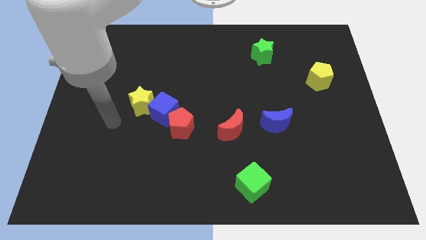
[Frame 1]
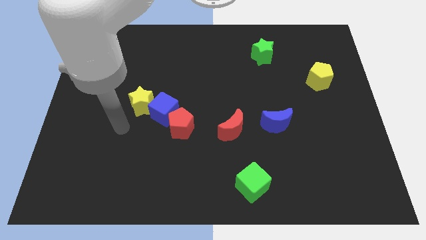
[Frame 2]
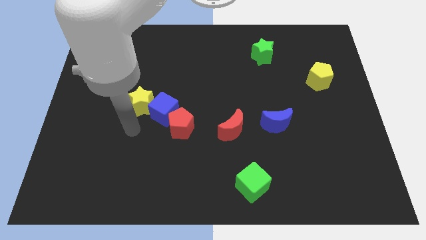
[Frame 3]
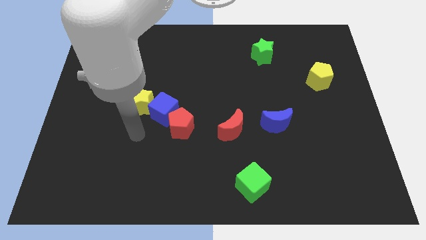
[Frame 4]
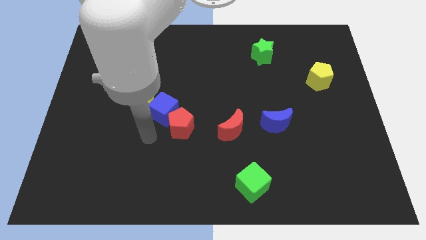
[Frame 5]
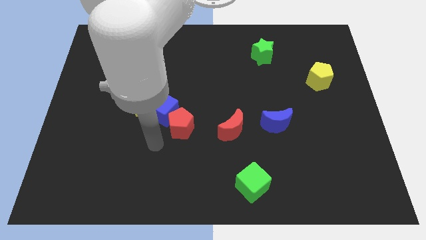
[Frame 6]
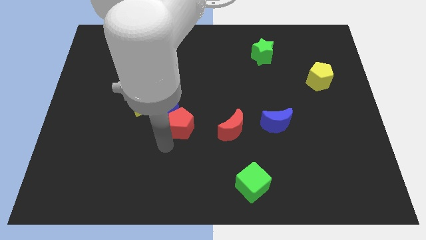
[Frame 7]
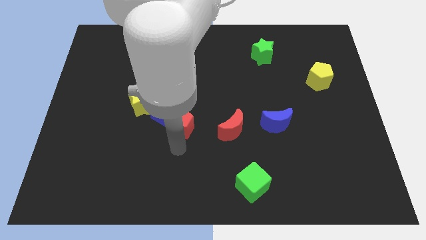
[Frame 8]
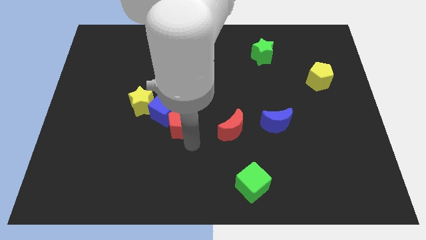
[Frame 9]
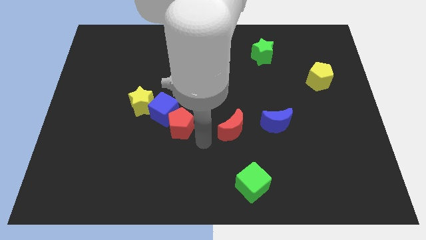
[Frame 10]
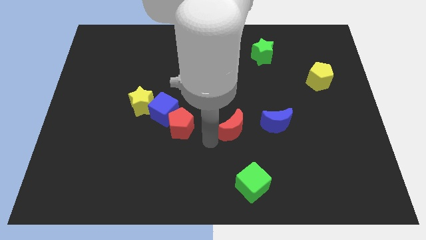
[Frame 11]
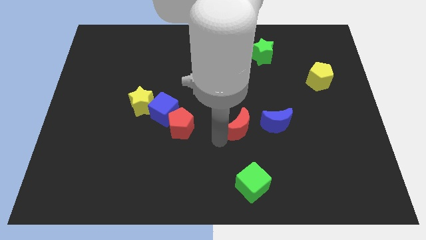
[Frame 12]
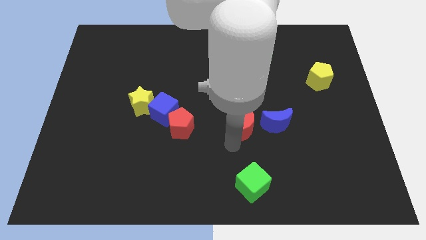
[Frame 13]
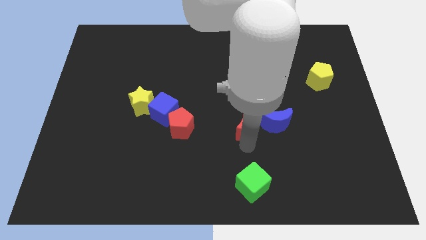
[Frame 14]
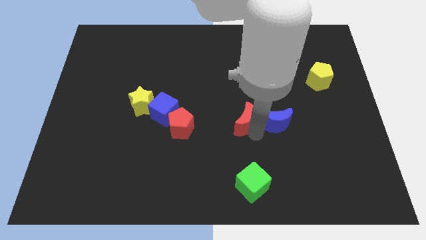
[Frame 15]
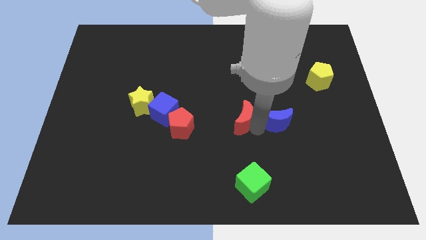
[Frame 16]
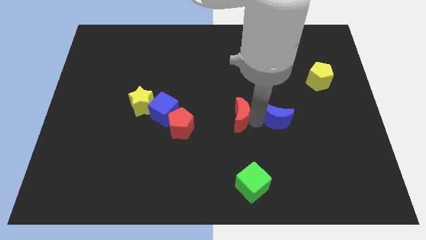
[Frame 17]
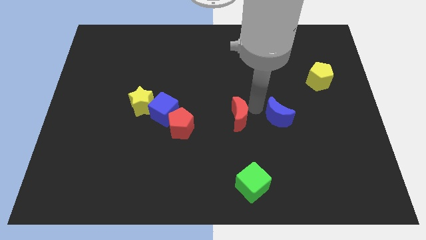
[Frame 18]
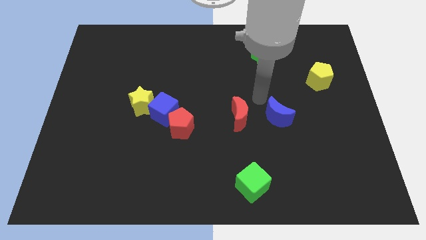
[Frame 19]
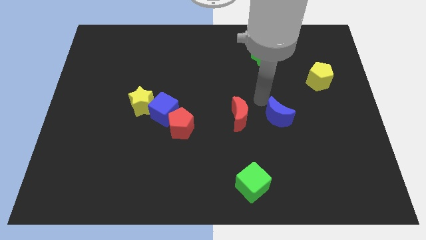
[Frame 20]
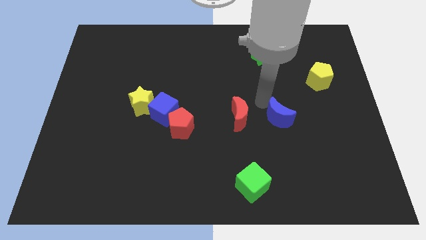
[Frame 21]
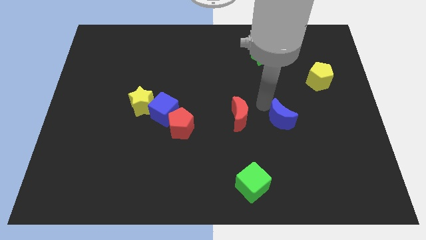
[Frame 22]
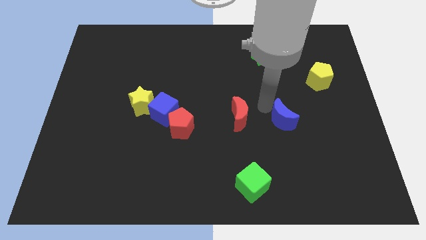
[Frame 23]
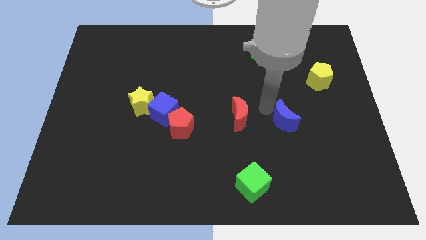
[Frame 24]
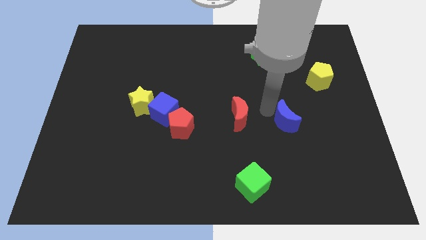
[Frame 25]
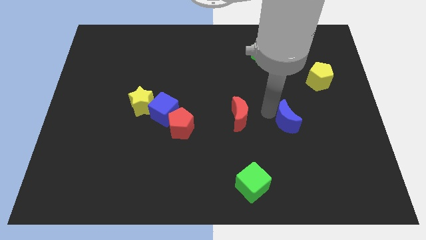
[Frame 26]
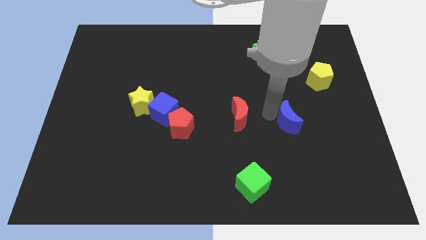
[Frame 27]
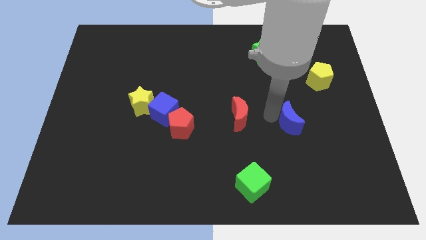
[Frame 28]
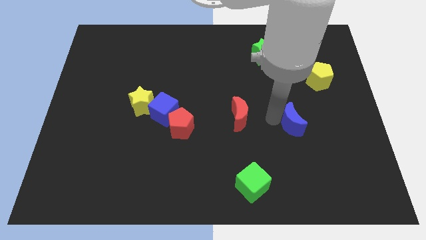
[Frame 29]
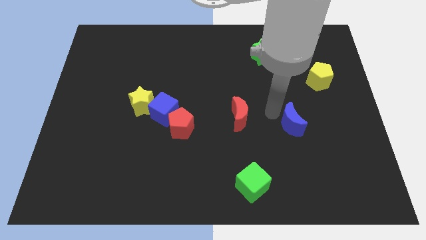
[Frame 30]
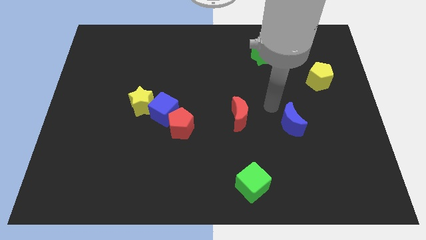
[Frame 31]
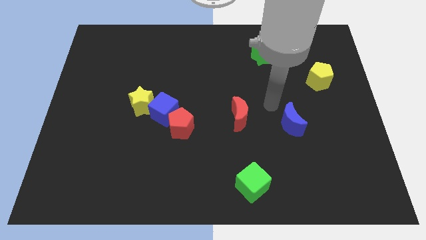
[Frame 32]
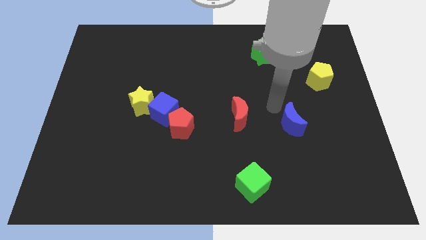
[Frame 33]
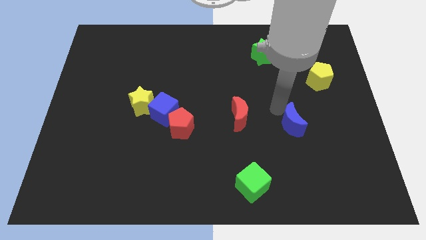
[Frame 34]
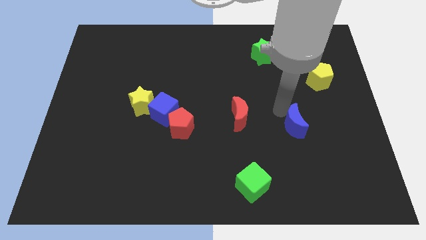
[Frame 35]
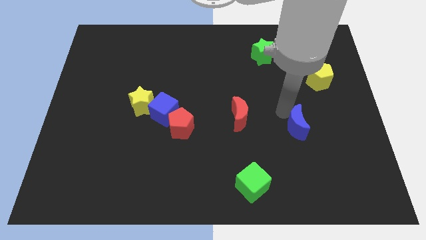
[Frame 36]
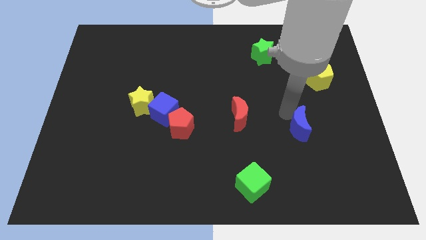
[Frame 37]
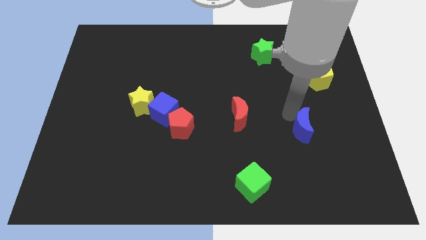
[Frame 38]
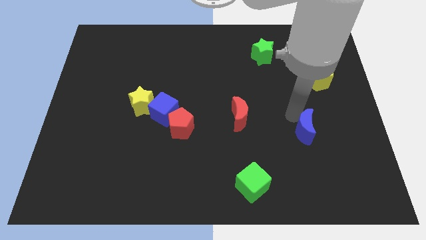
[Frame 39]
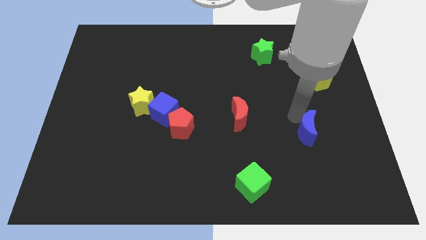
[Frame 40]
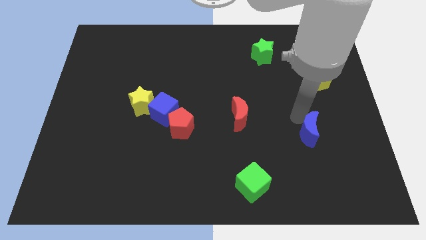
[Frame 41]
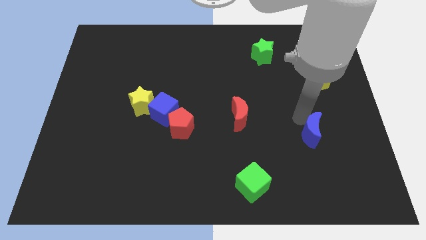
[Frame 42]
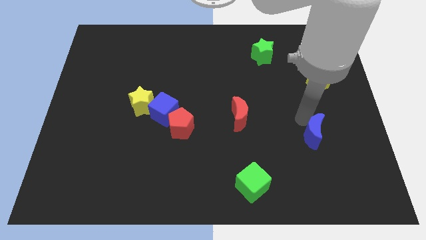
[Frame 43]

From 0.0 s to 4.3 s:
slide the blue moon downwards and right a little

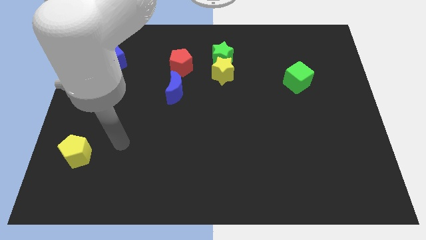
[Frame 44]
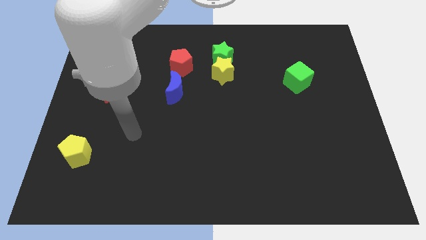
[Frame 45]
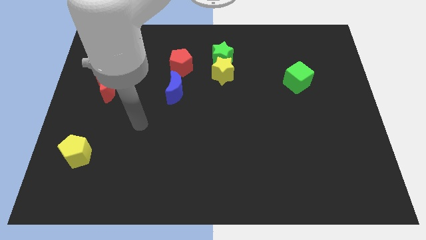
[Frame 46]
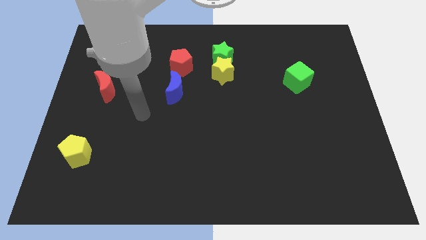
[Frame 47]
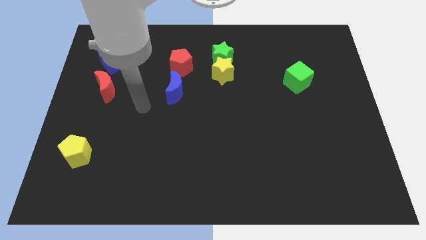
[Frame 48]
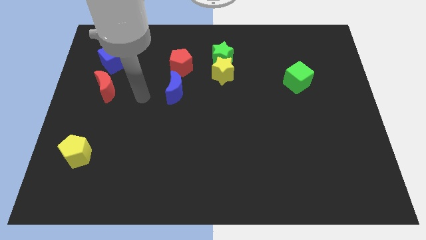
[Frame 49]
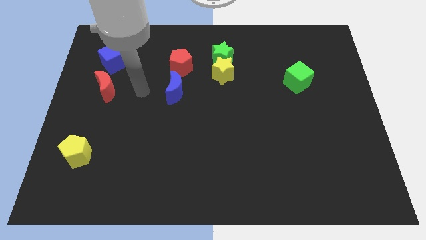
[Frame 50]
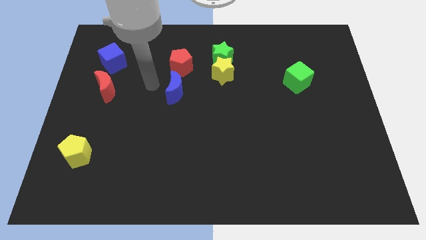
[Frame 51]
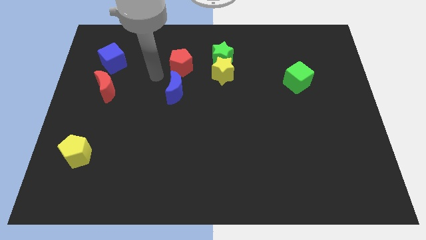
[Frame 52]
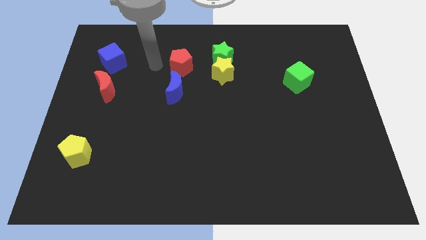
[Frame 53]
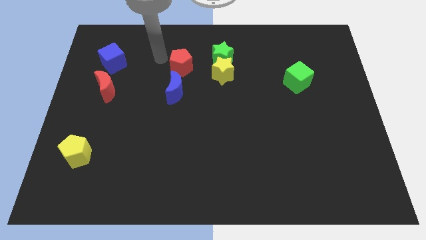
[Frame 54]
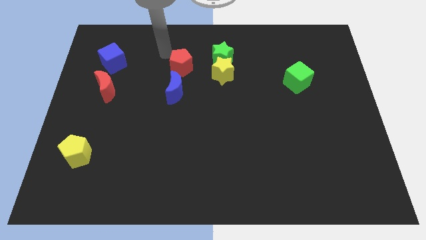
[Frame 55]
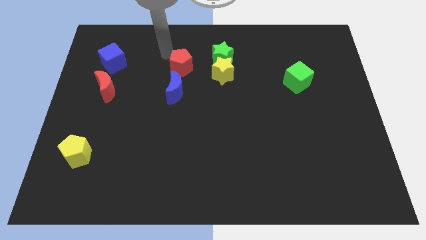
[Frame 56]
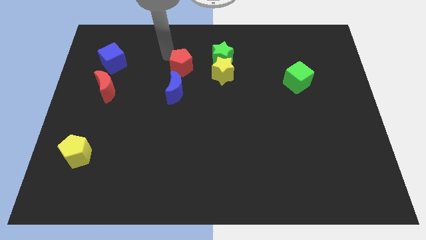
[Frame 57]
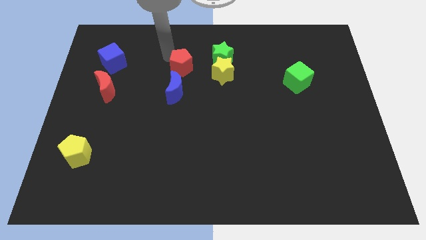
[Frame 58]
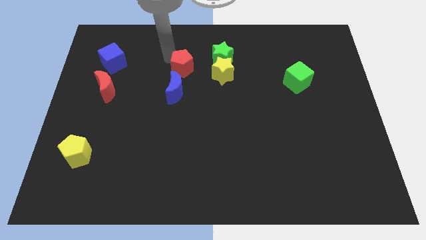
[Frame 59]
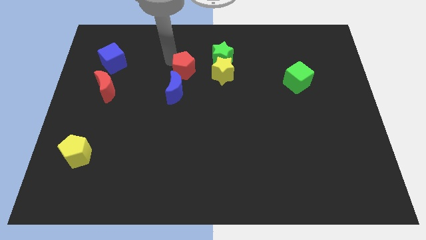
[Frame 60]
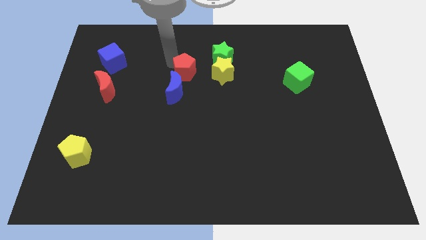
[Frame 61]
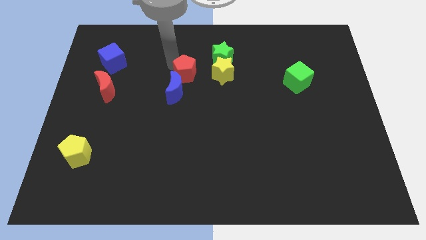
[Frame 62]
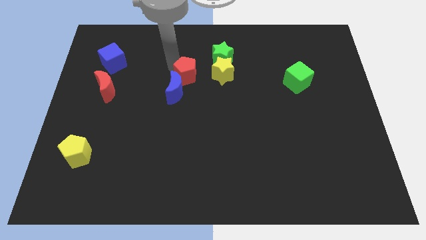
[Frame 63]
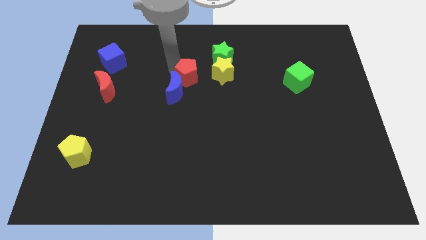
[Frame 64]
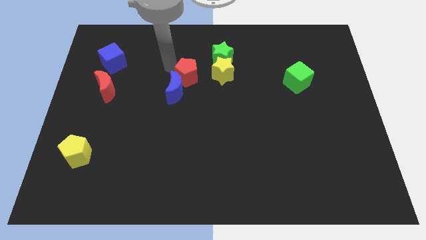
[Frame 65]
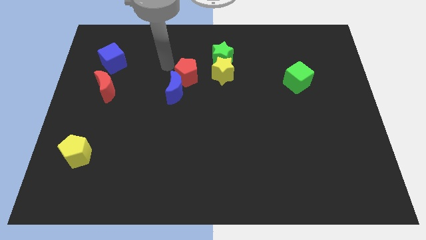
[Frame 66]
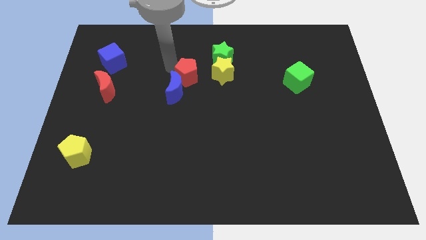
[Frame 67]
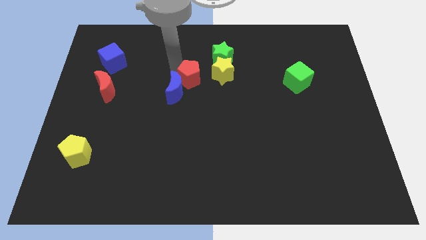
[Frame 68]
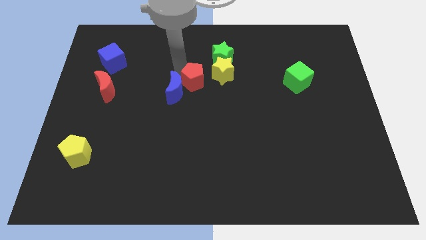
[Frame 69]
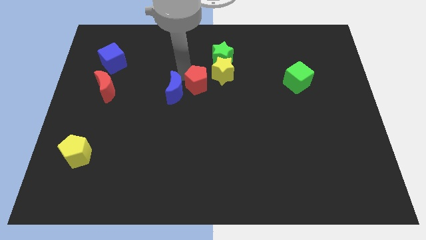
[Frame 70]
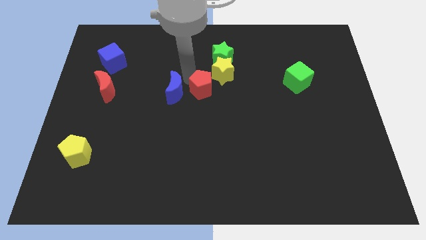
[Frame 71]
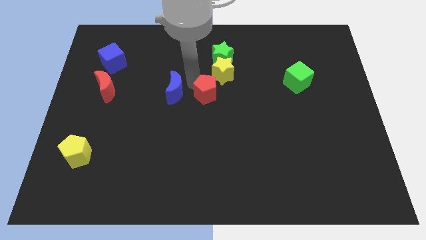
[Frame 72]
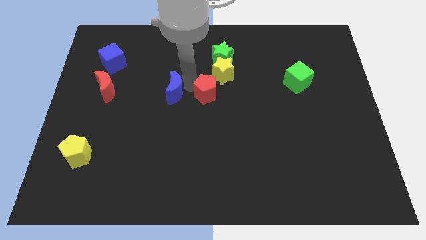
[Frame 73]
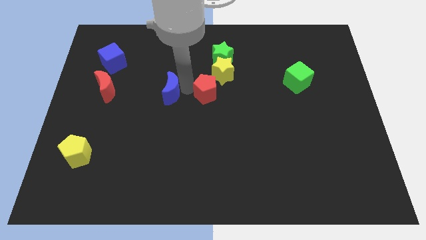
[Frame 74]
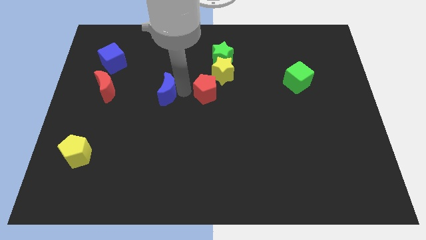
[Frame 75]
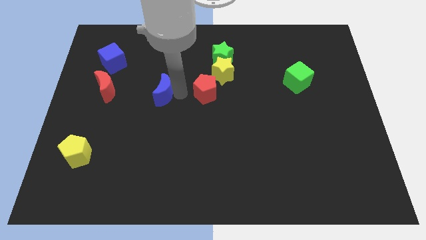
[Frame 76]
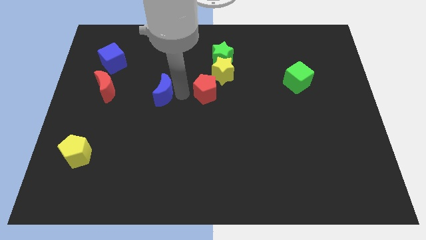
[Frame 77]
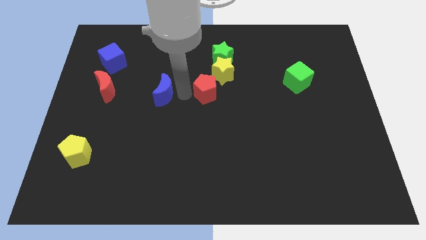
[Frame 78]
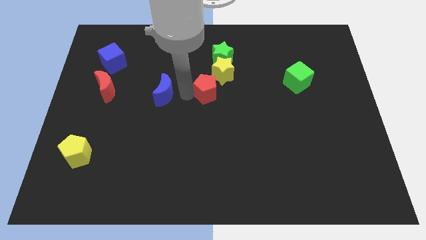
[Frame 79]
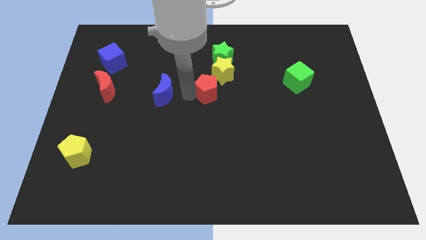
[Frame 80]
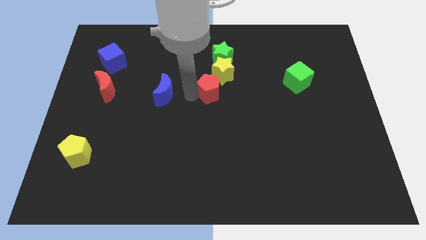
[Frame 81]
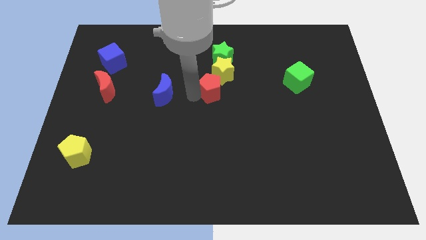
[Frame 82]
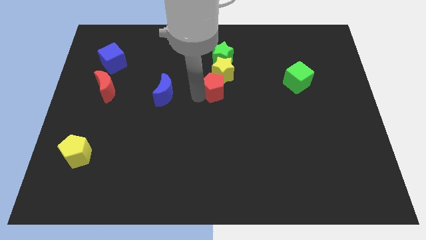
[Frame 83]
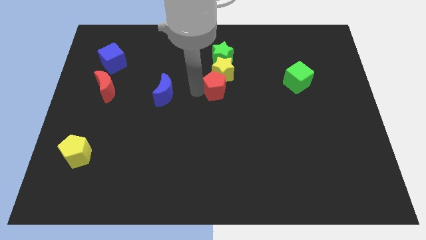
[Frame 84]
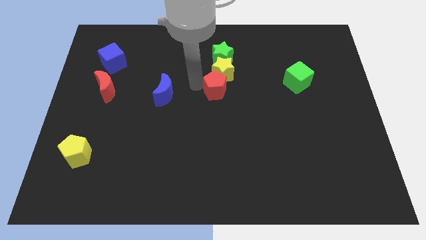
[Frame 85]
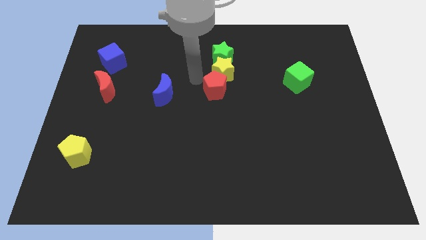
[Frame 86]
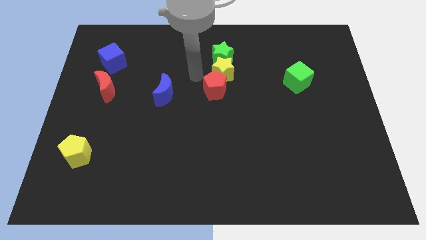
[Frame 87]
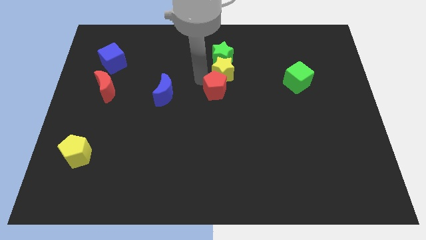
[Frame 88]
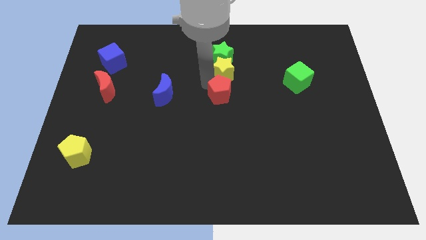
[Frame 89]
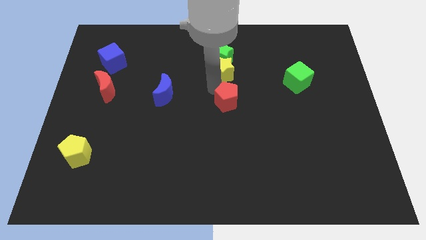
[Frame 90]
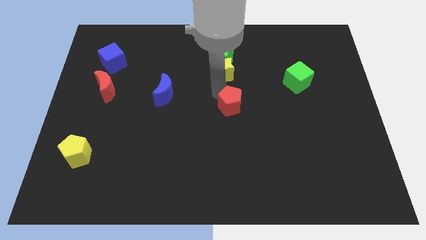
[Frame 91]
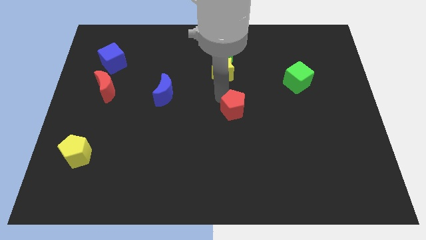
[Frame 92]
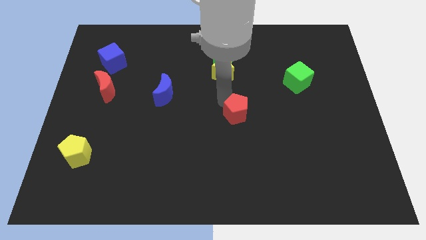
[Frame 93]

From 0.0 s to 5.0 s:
slide the red pentagon down and right
